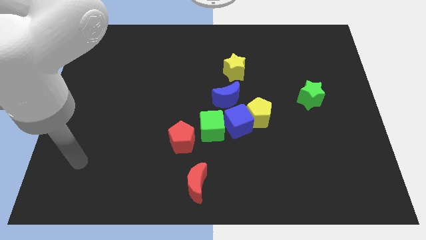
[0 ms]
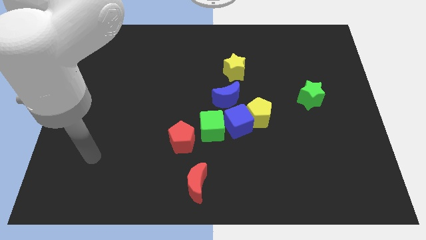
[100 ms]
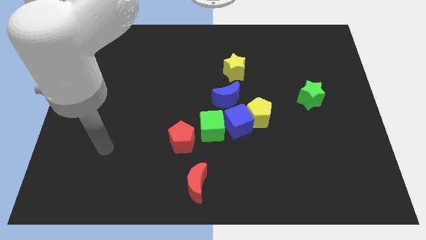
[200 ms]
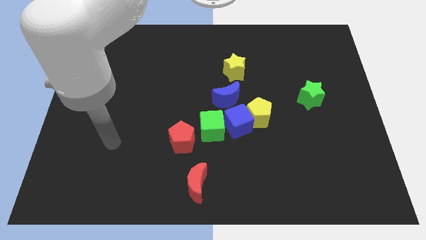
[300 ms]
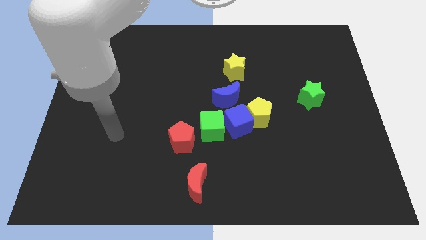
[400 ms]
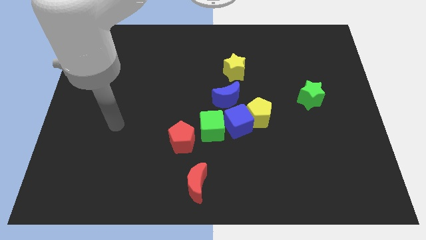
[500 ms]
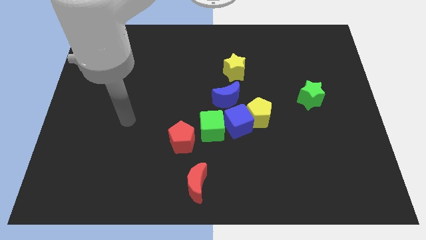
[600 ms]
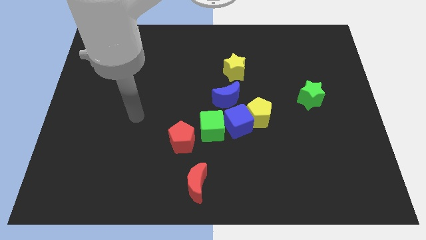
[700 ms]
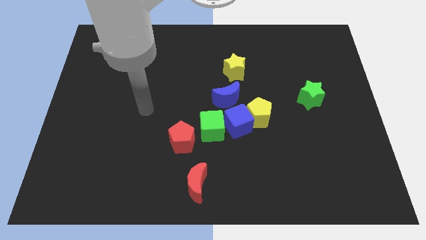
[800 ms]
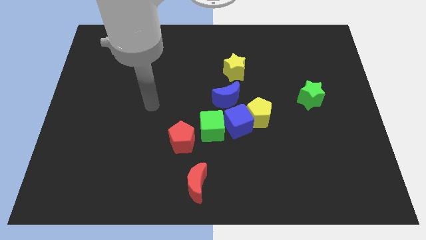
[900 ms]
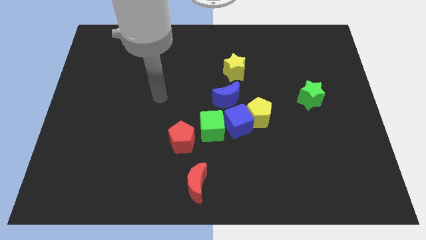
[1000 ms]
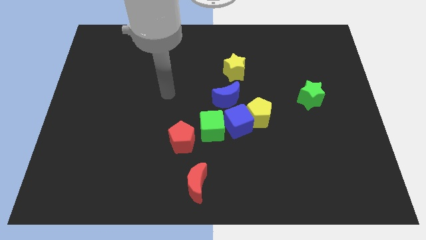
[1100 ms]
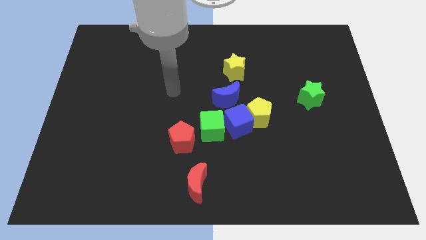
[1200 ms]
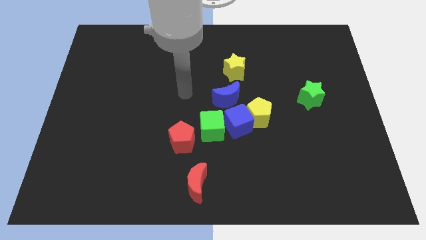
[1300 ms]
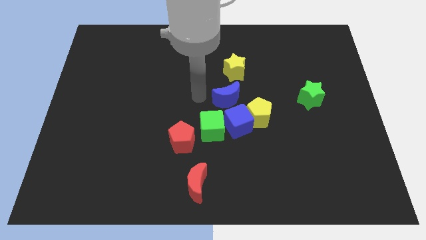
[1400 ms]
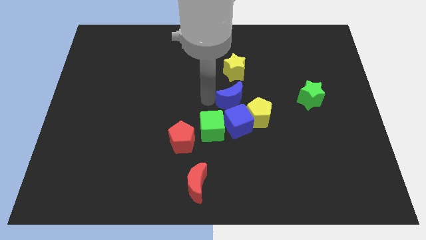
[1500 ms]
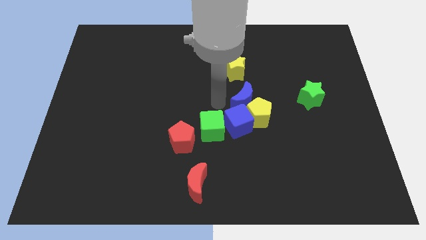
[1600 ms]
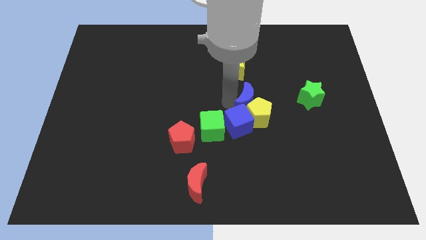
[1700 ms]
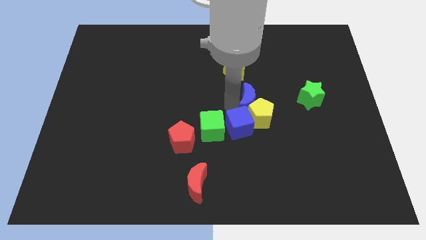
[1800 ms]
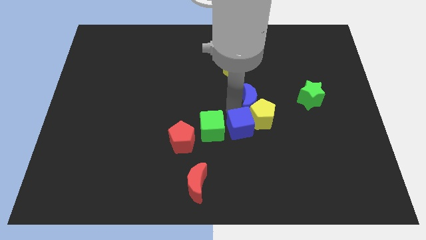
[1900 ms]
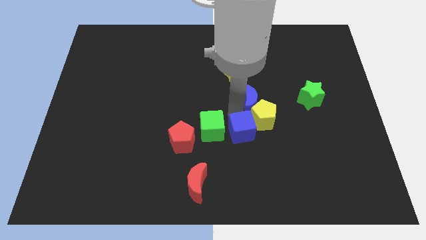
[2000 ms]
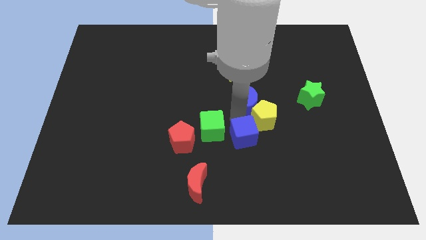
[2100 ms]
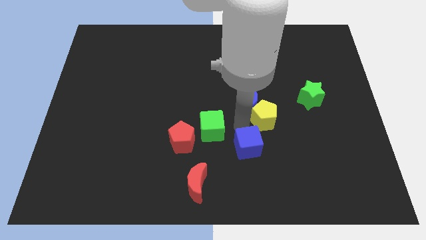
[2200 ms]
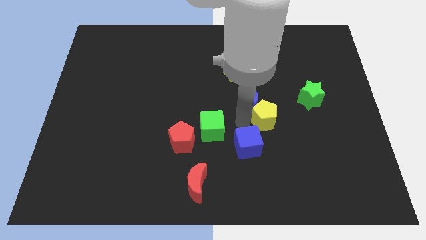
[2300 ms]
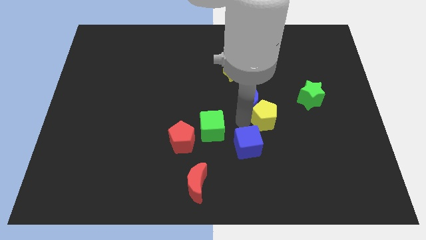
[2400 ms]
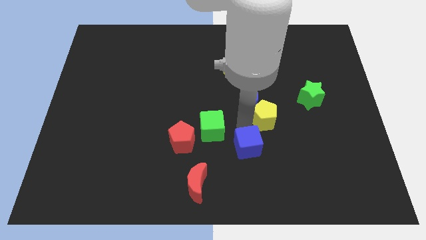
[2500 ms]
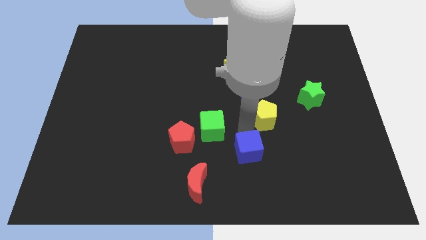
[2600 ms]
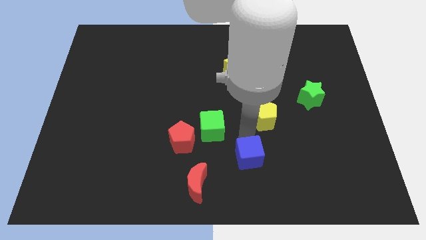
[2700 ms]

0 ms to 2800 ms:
move the blue cube away from the clump

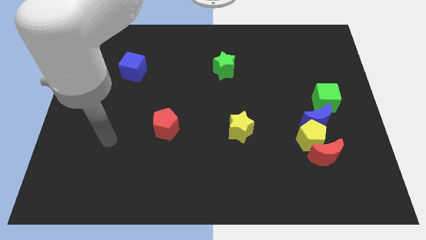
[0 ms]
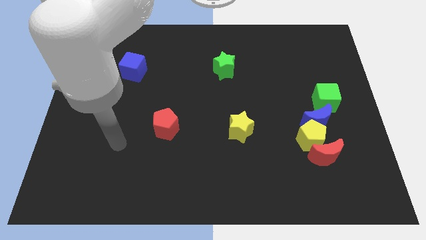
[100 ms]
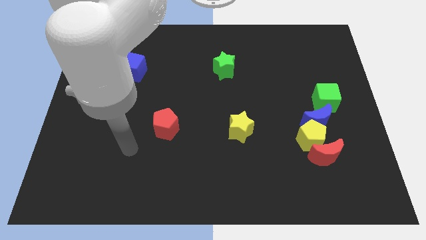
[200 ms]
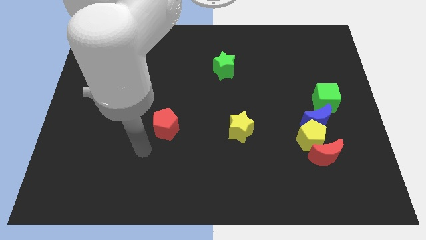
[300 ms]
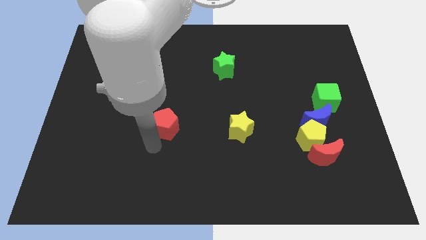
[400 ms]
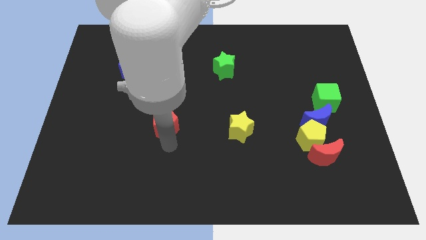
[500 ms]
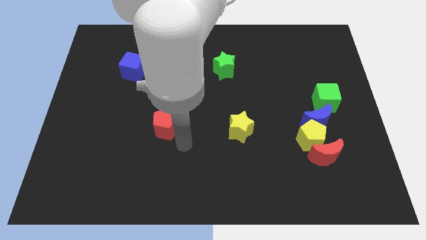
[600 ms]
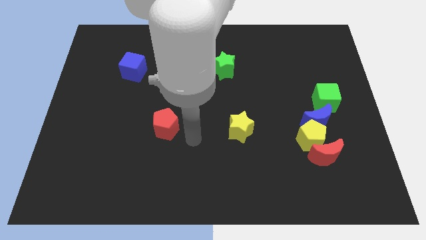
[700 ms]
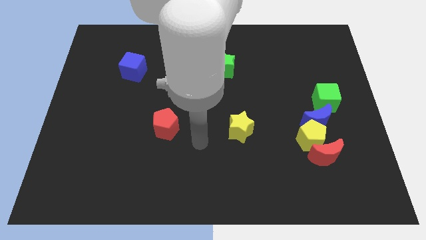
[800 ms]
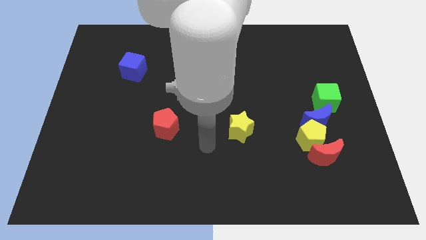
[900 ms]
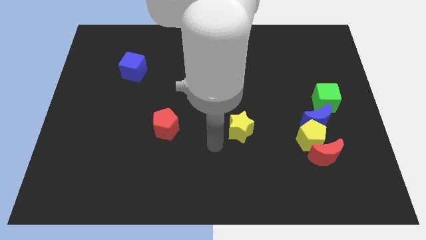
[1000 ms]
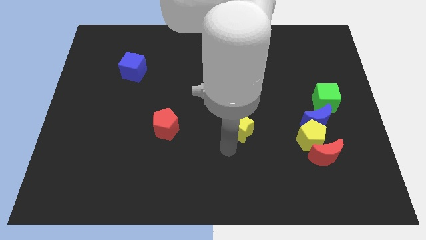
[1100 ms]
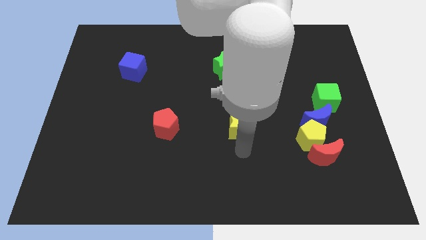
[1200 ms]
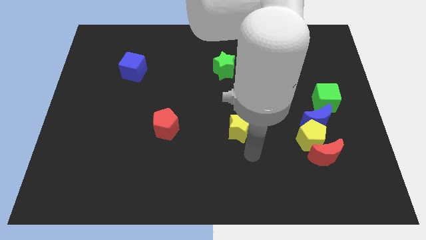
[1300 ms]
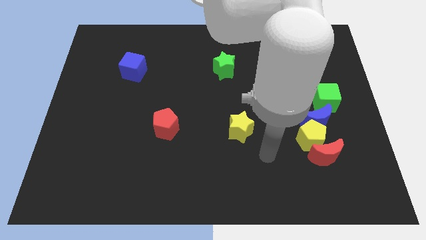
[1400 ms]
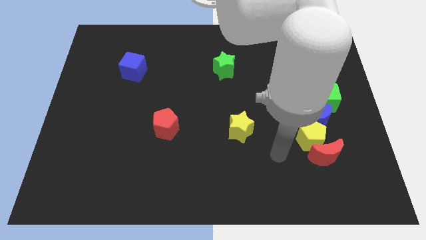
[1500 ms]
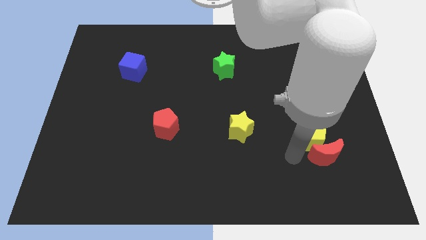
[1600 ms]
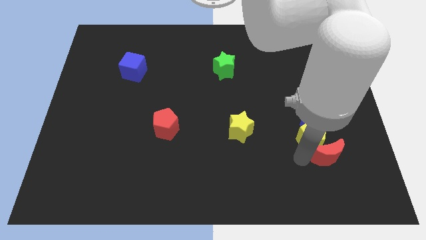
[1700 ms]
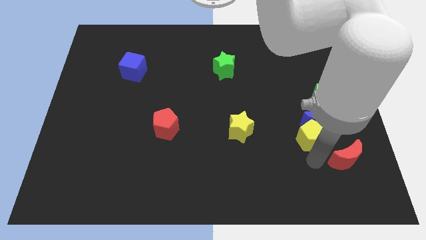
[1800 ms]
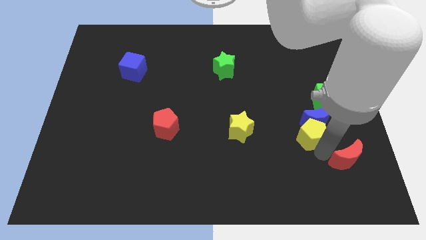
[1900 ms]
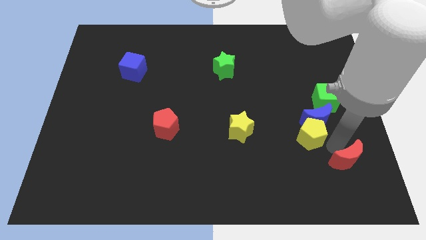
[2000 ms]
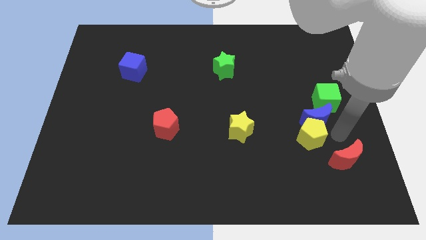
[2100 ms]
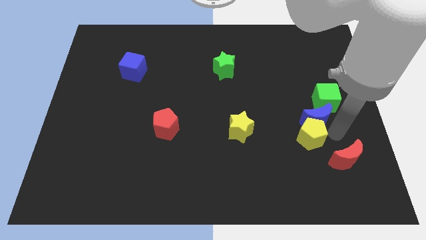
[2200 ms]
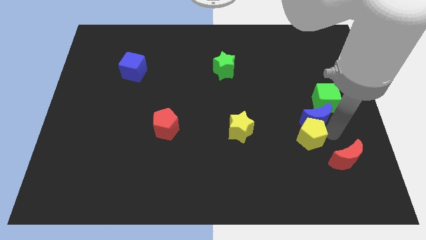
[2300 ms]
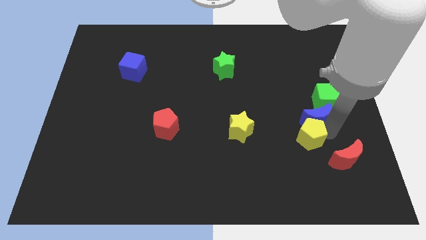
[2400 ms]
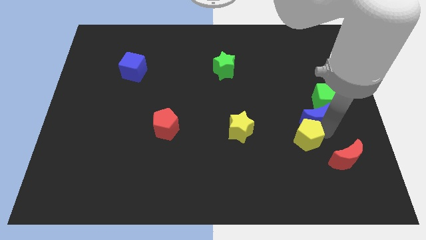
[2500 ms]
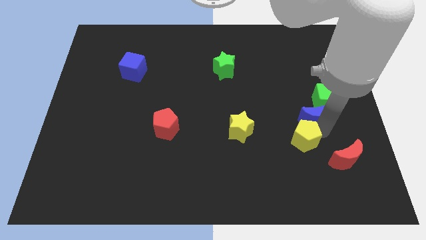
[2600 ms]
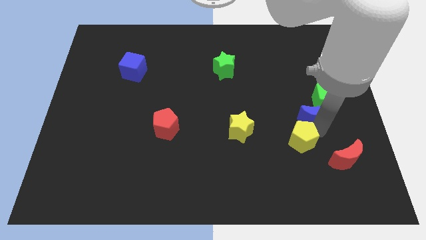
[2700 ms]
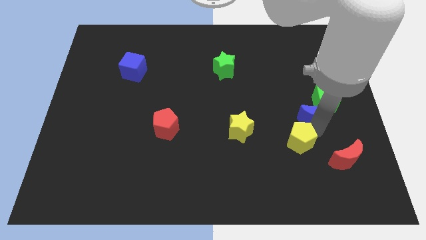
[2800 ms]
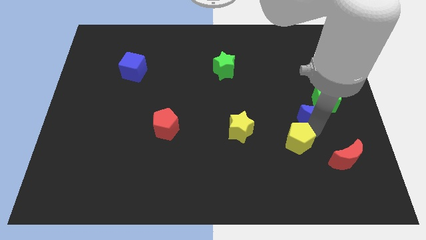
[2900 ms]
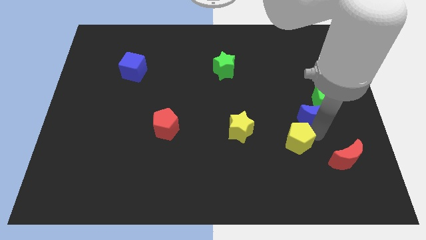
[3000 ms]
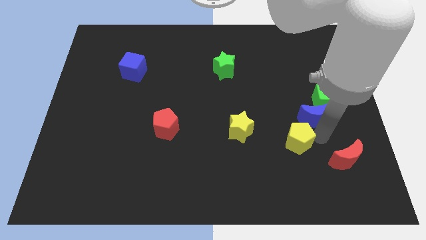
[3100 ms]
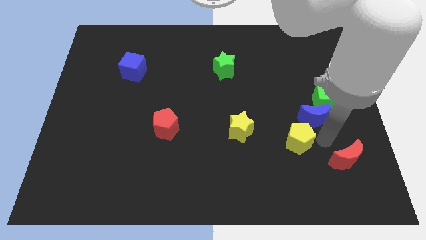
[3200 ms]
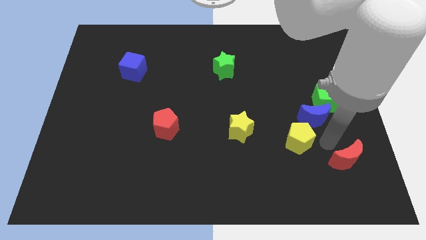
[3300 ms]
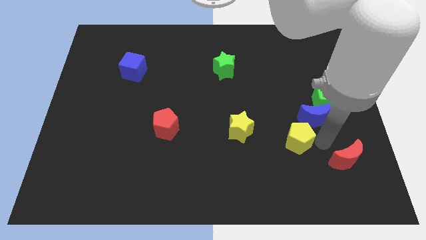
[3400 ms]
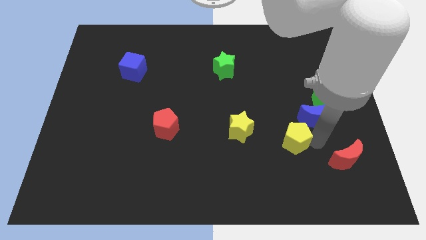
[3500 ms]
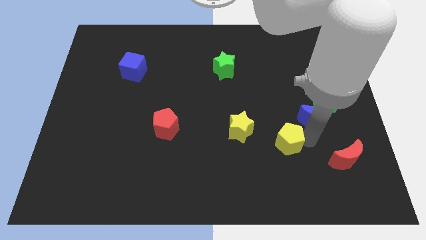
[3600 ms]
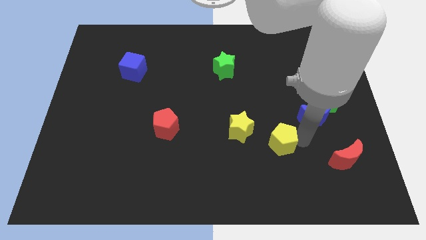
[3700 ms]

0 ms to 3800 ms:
pull the yellow pentagon apart from the blue moon and red moon

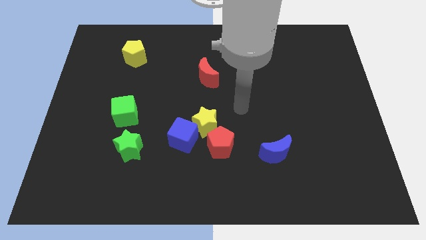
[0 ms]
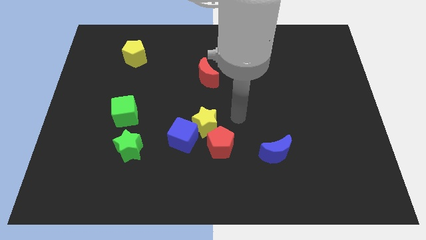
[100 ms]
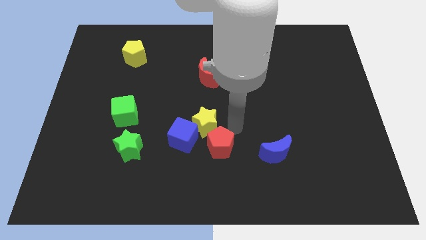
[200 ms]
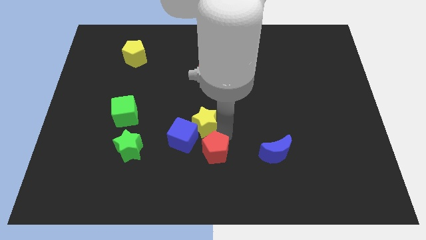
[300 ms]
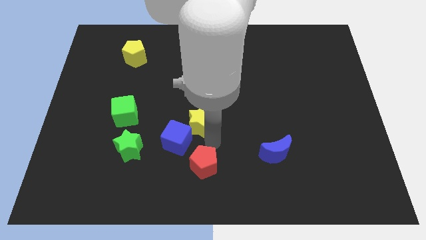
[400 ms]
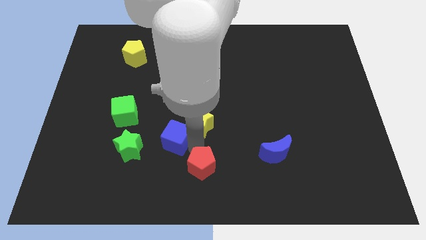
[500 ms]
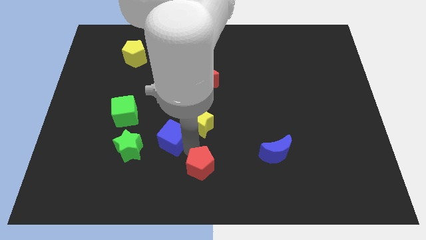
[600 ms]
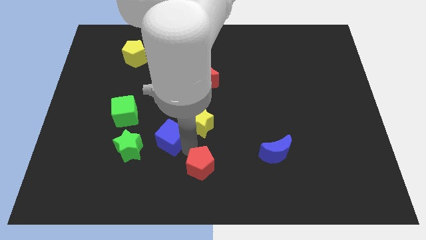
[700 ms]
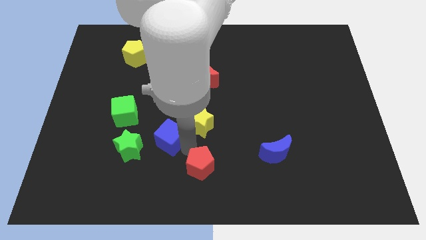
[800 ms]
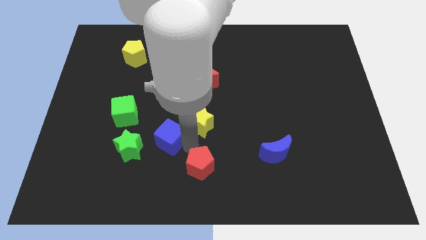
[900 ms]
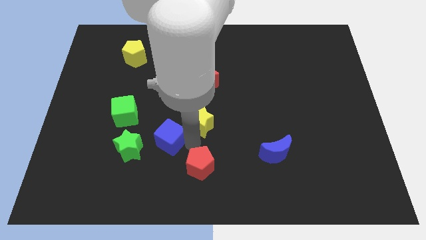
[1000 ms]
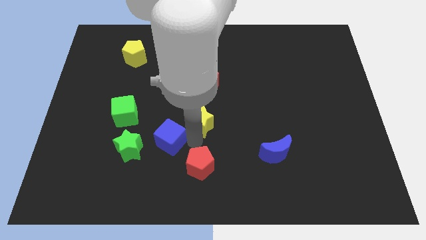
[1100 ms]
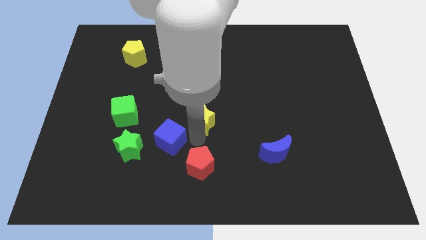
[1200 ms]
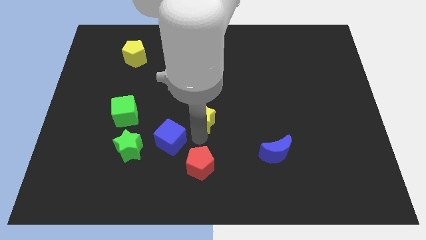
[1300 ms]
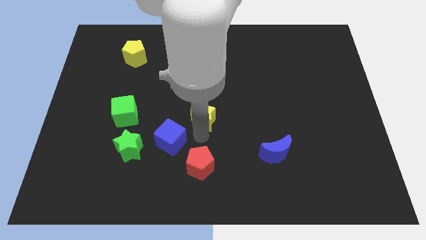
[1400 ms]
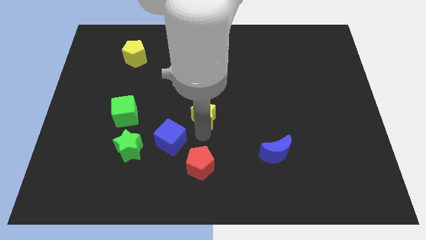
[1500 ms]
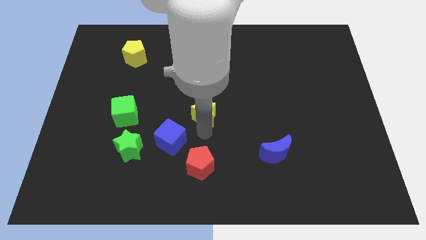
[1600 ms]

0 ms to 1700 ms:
pull the yellow star apart from the blue cube and red pentagon

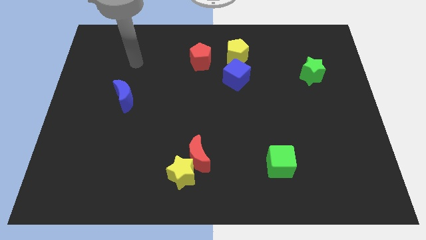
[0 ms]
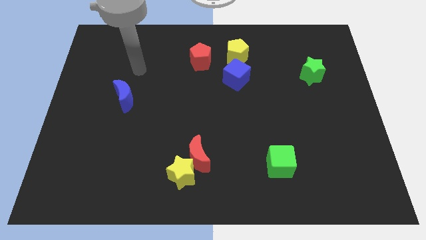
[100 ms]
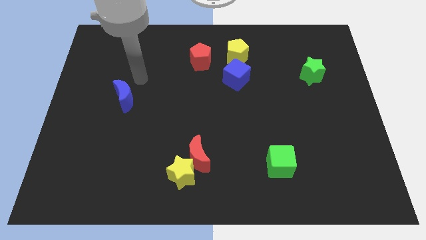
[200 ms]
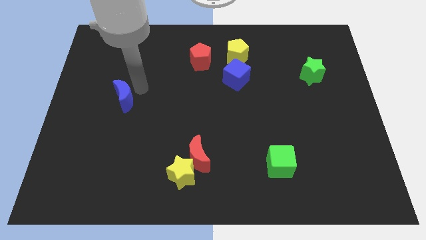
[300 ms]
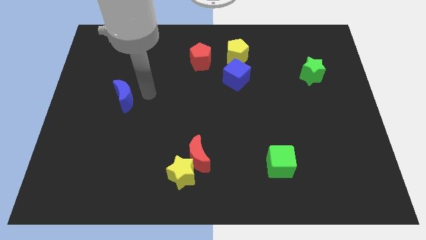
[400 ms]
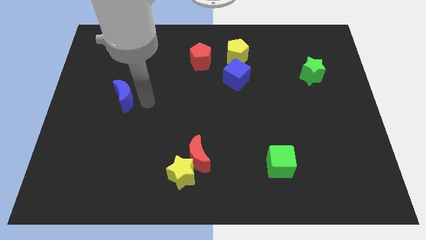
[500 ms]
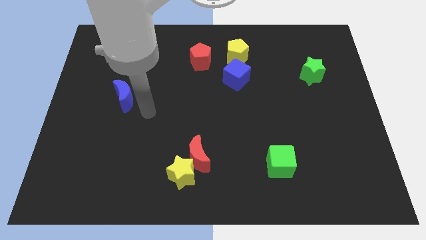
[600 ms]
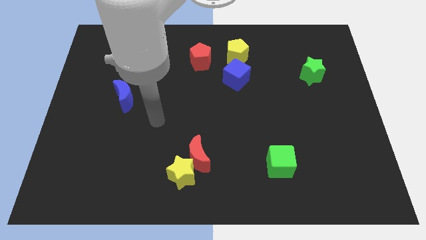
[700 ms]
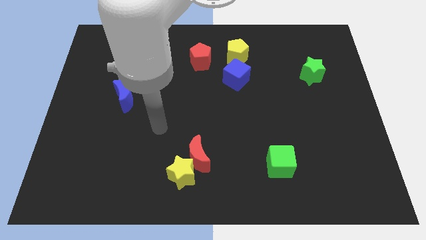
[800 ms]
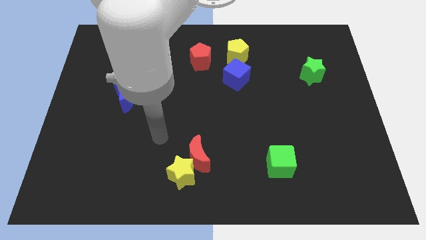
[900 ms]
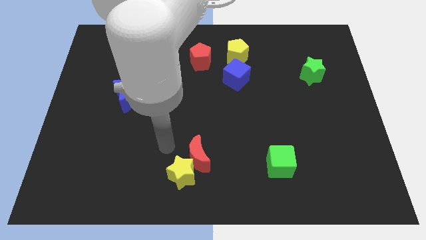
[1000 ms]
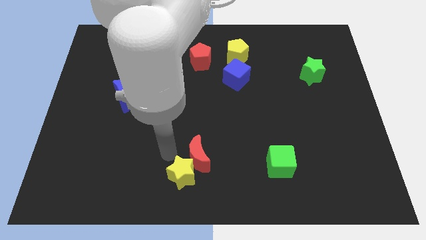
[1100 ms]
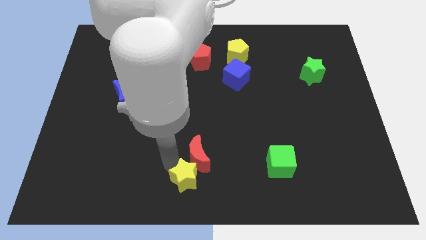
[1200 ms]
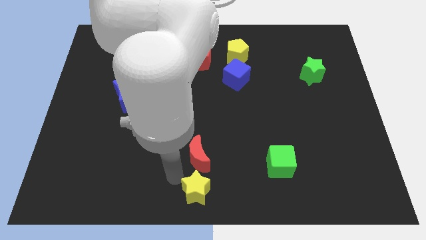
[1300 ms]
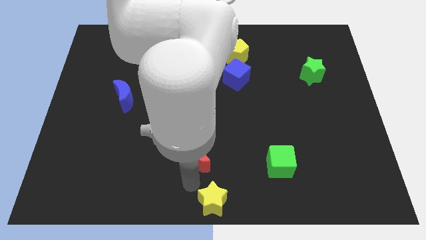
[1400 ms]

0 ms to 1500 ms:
separate the red moon from the yellow star
